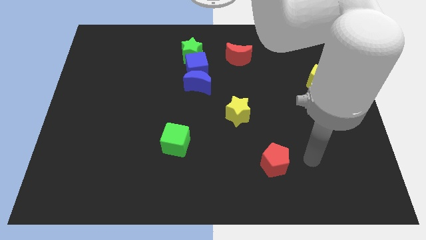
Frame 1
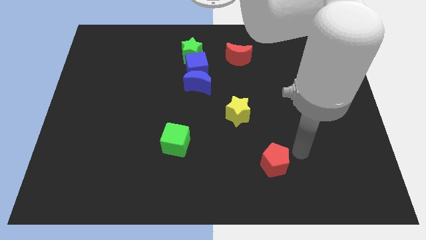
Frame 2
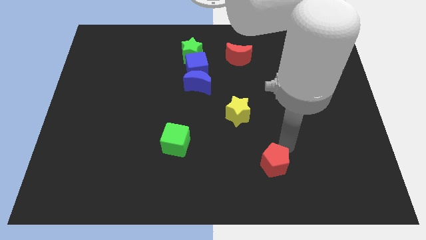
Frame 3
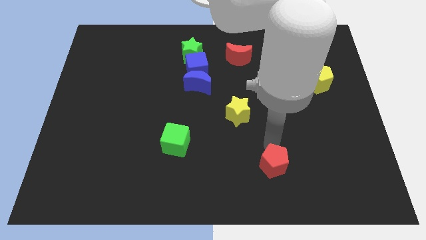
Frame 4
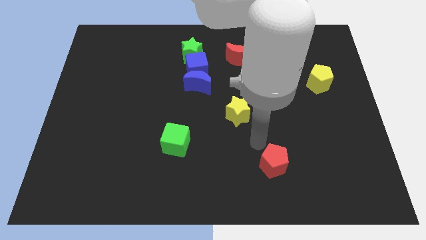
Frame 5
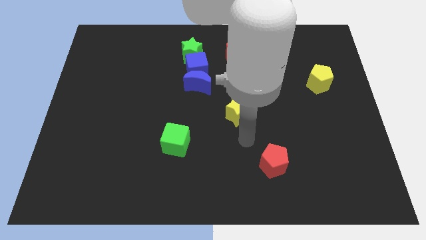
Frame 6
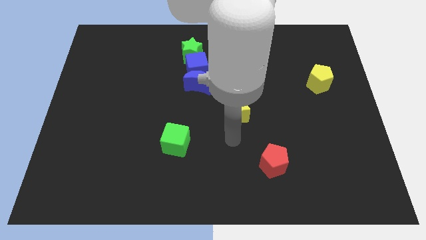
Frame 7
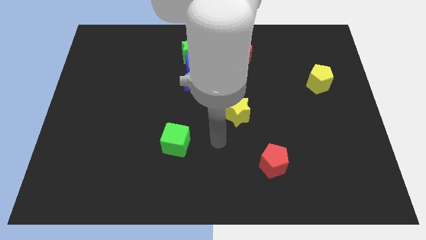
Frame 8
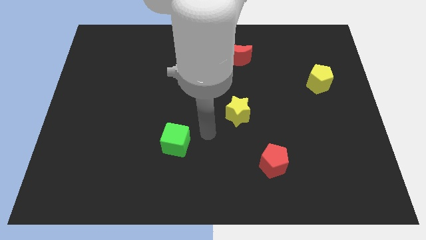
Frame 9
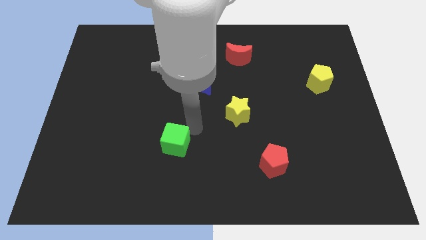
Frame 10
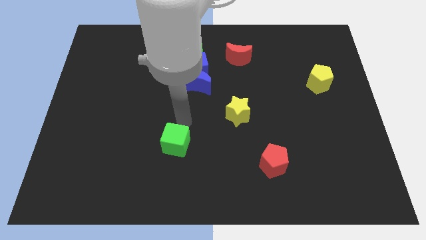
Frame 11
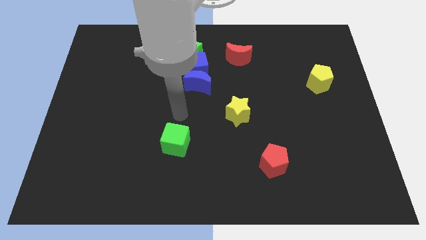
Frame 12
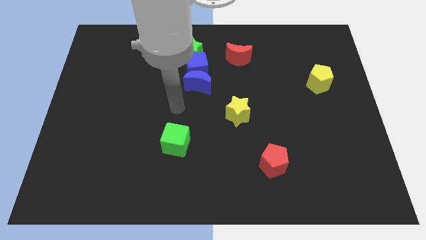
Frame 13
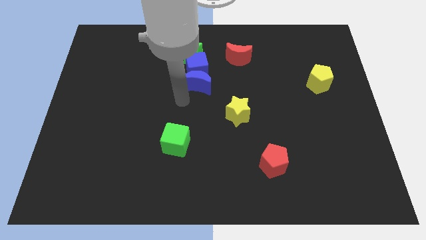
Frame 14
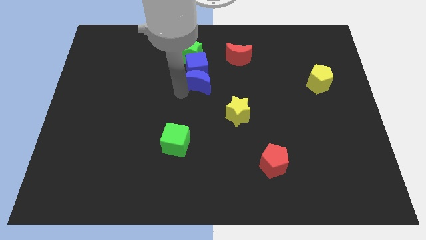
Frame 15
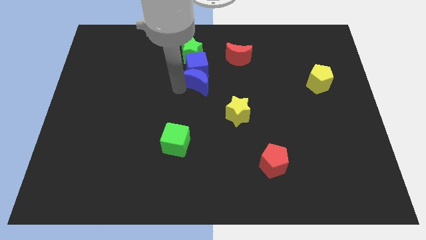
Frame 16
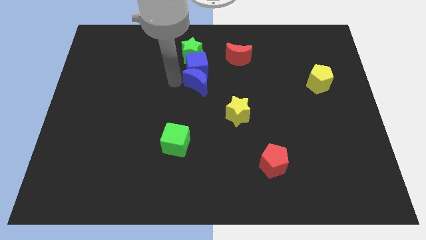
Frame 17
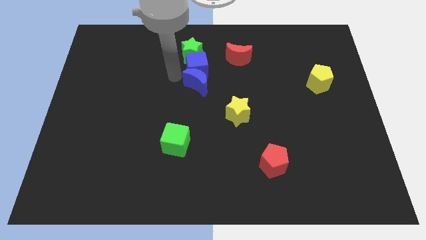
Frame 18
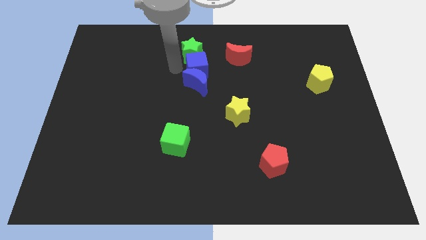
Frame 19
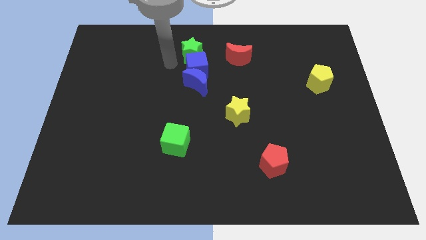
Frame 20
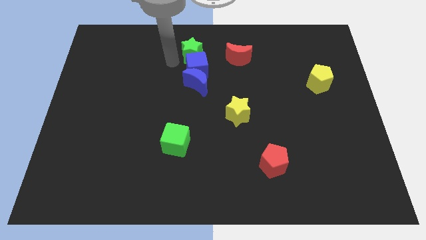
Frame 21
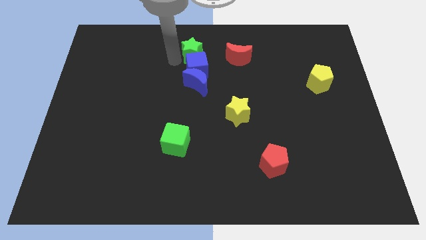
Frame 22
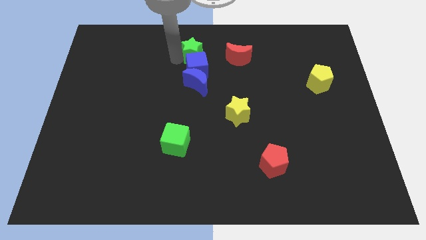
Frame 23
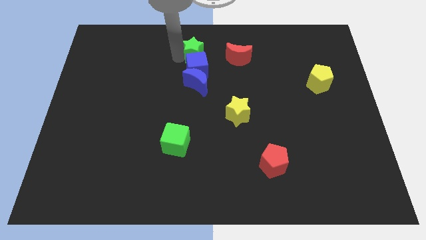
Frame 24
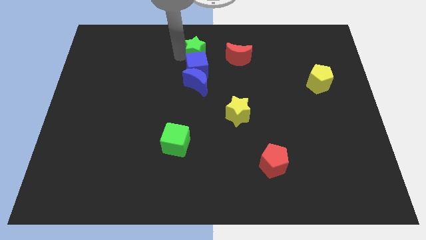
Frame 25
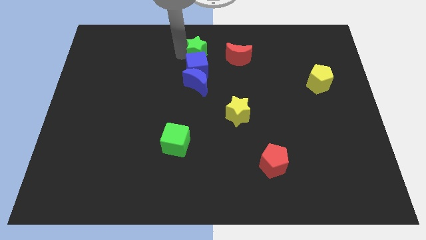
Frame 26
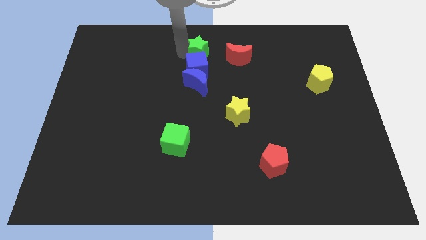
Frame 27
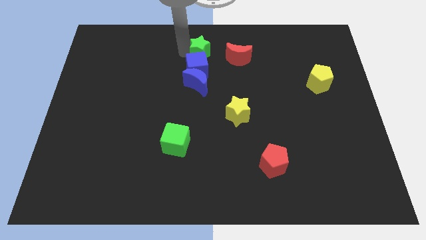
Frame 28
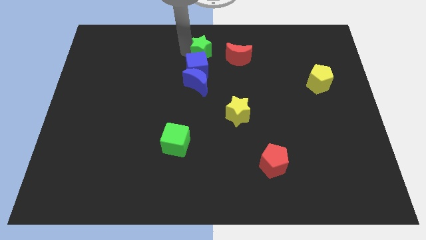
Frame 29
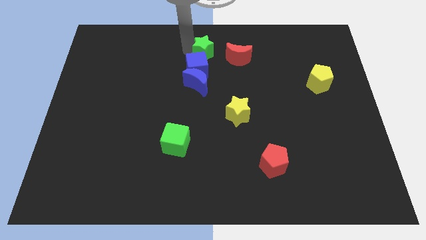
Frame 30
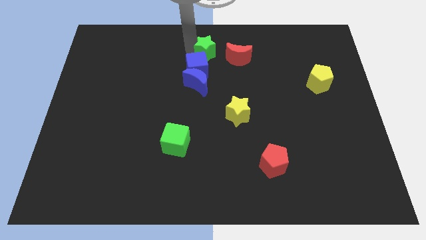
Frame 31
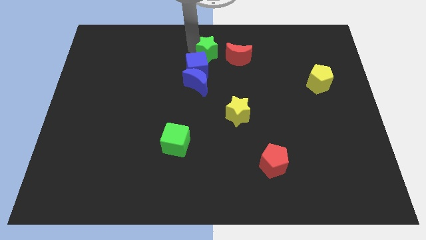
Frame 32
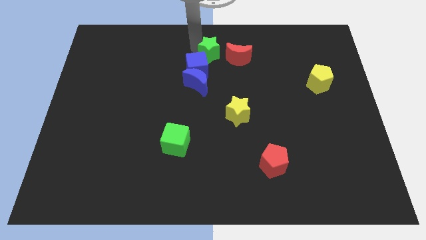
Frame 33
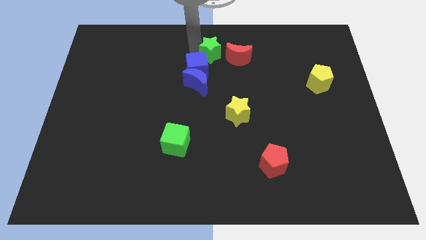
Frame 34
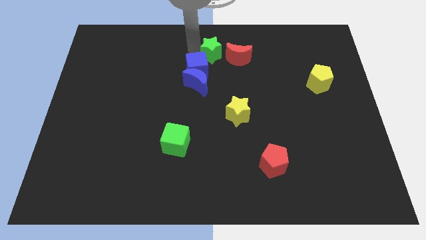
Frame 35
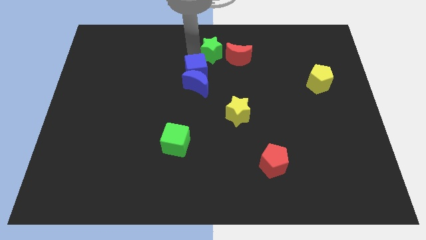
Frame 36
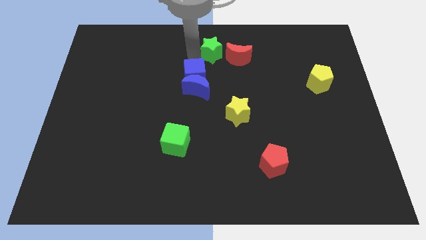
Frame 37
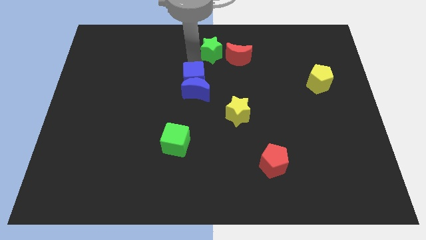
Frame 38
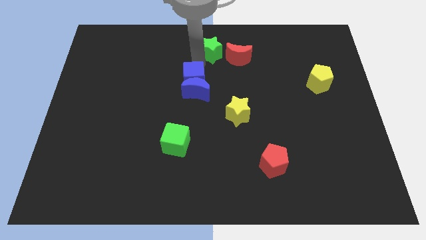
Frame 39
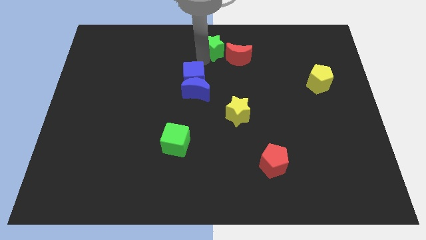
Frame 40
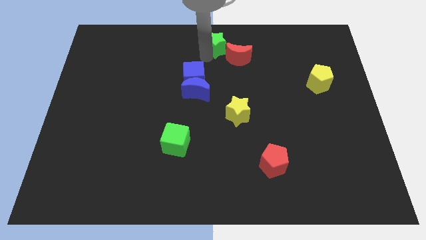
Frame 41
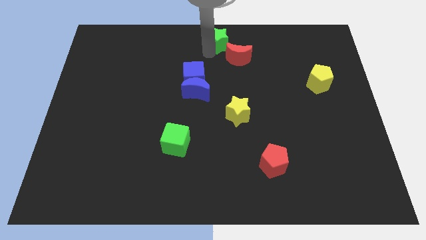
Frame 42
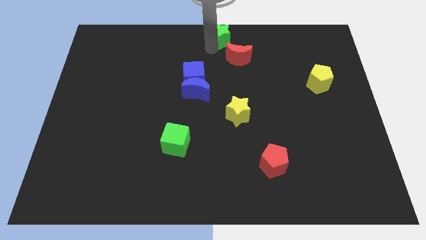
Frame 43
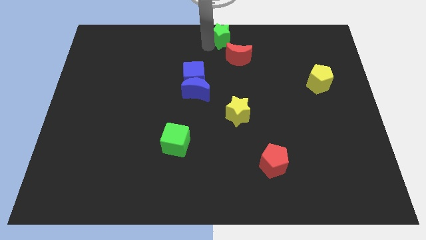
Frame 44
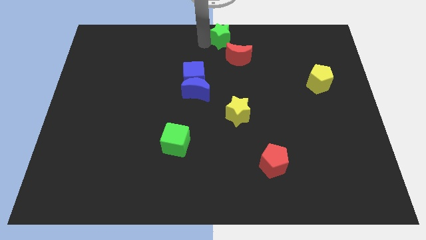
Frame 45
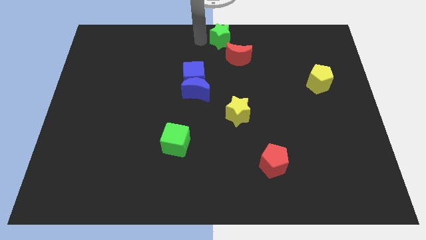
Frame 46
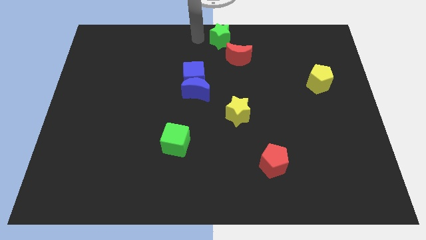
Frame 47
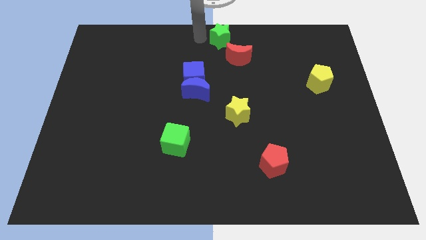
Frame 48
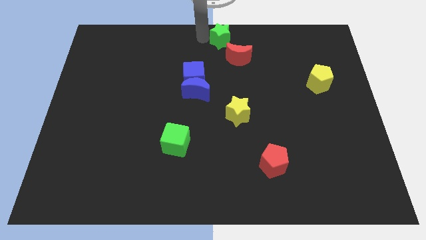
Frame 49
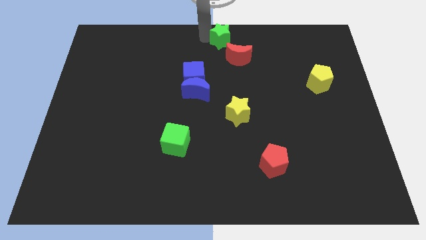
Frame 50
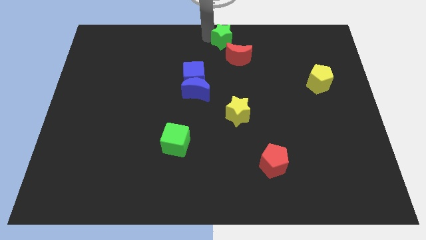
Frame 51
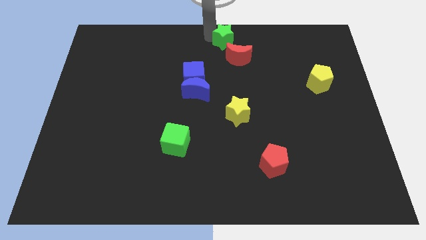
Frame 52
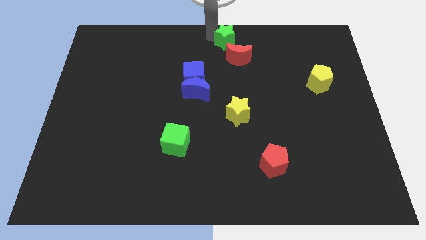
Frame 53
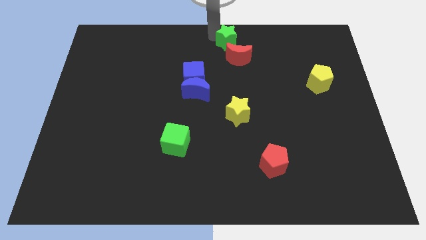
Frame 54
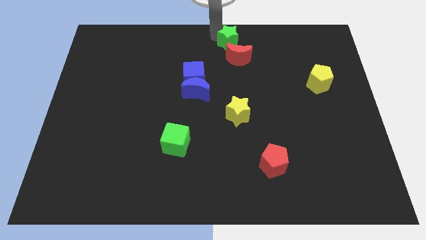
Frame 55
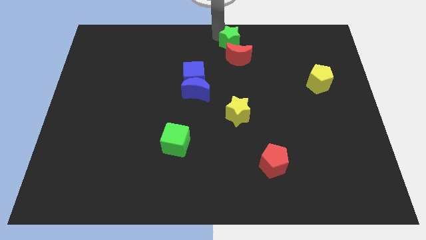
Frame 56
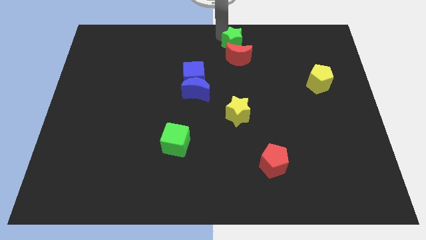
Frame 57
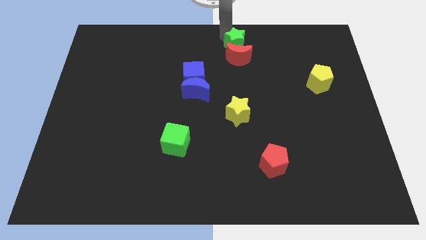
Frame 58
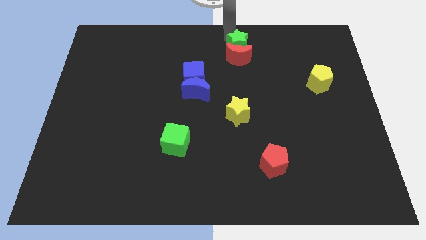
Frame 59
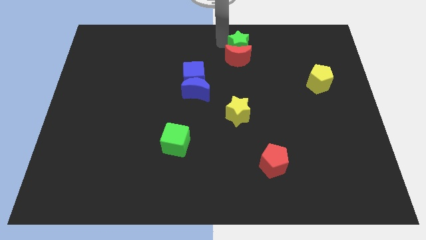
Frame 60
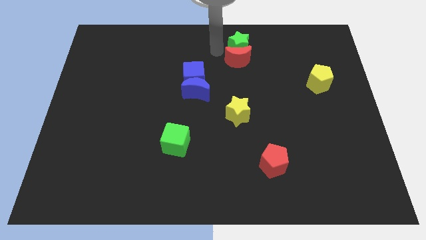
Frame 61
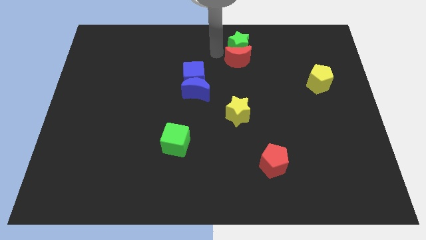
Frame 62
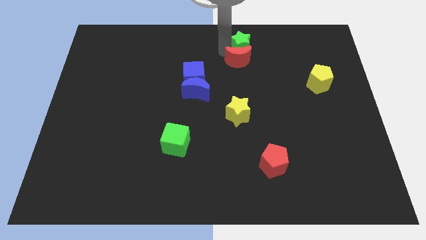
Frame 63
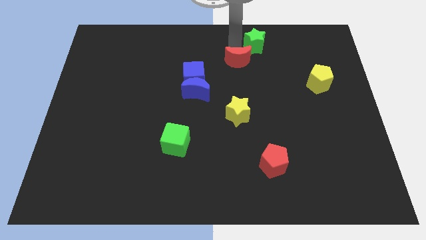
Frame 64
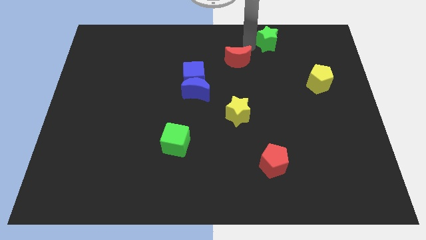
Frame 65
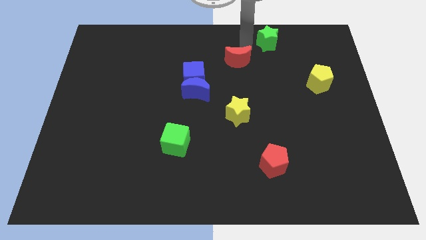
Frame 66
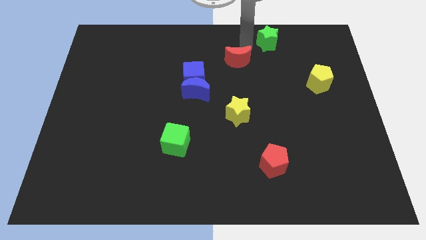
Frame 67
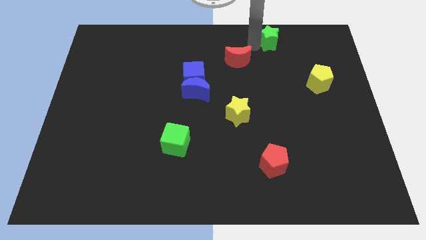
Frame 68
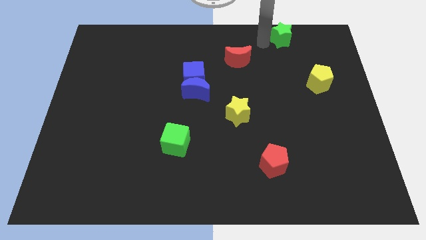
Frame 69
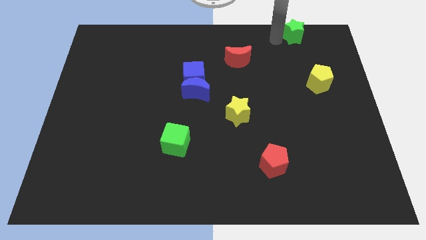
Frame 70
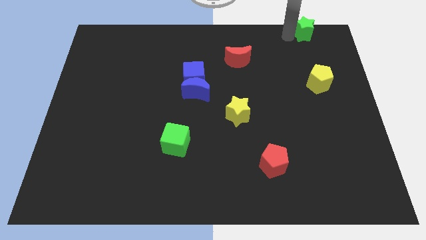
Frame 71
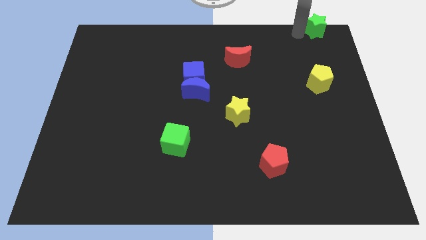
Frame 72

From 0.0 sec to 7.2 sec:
push the green star to the top right corner
